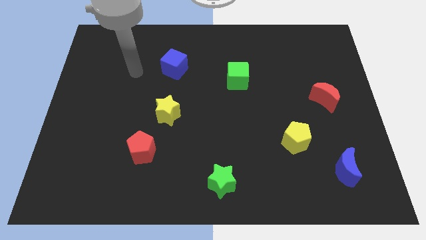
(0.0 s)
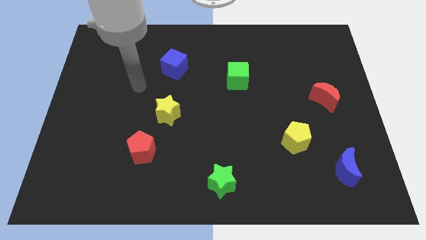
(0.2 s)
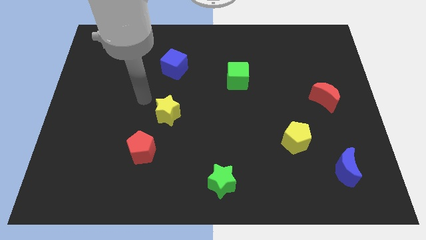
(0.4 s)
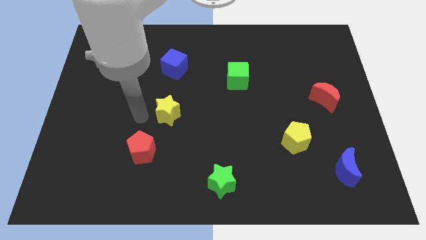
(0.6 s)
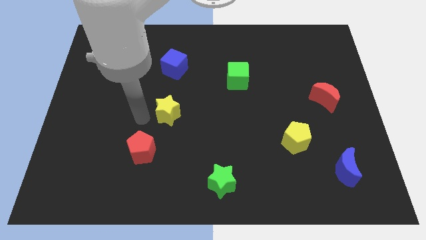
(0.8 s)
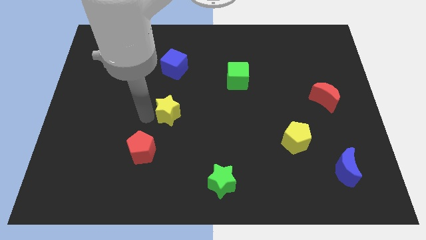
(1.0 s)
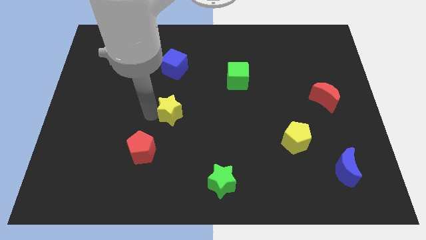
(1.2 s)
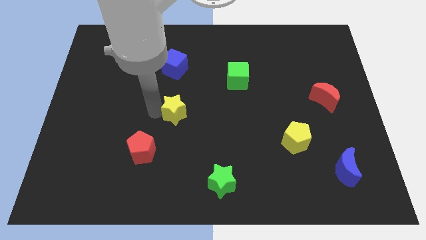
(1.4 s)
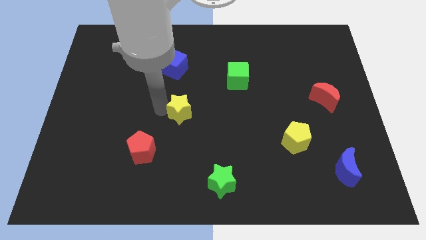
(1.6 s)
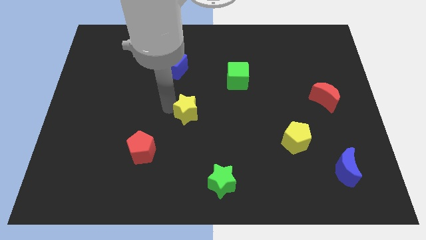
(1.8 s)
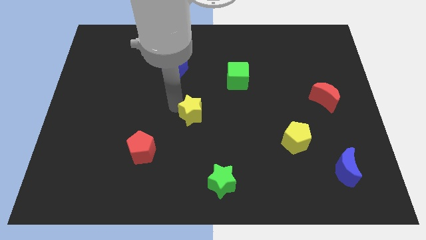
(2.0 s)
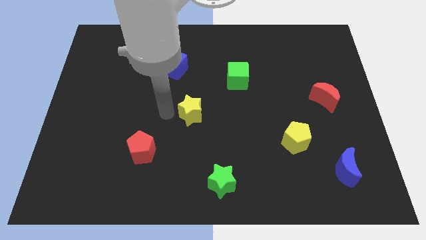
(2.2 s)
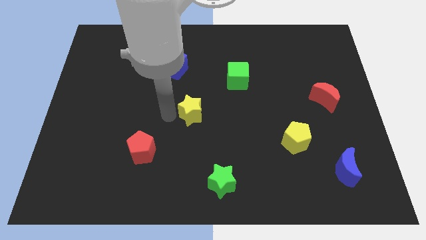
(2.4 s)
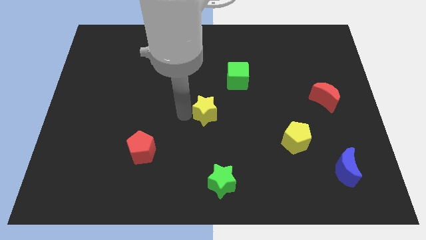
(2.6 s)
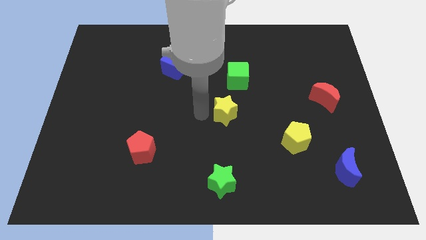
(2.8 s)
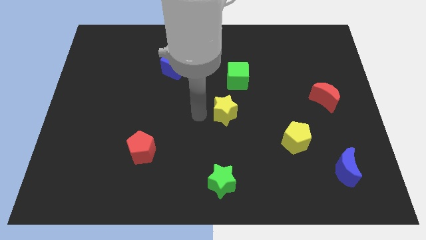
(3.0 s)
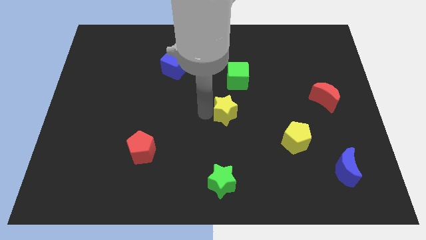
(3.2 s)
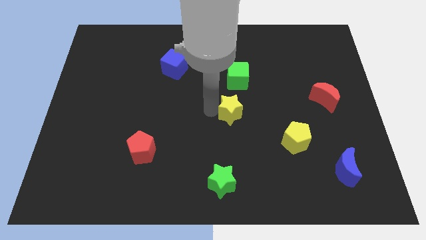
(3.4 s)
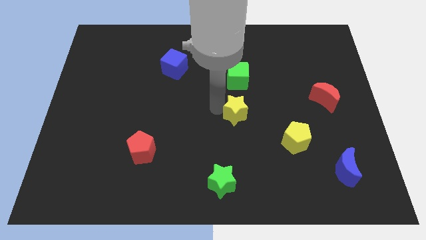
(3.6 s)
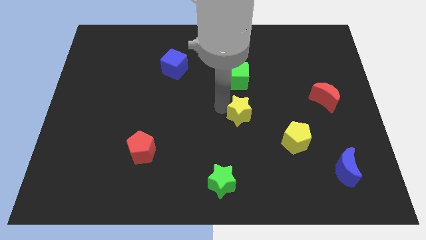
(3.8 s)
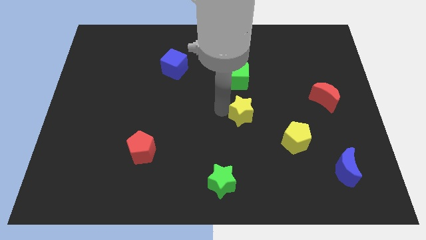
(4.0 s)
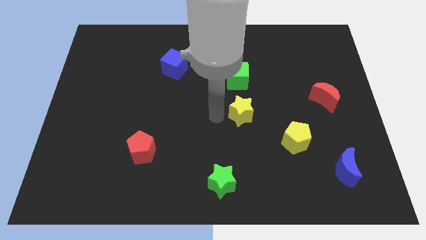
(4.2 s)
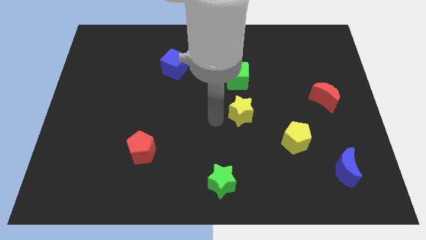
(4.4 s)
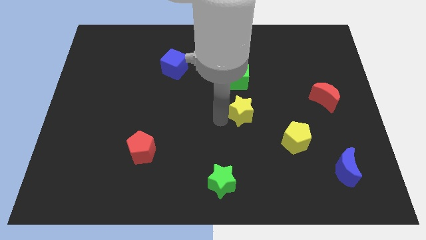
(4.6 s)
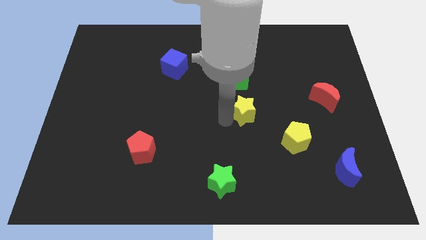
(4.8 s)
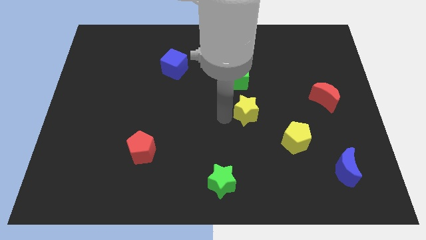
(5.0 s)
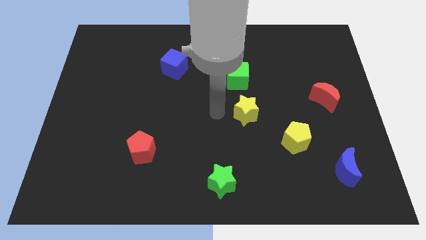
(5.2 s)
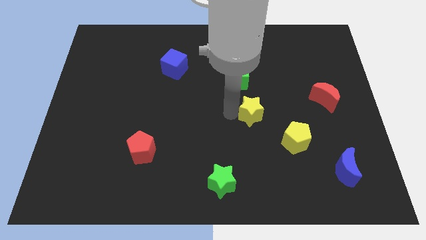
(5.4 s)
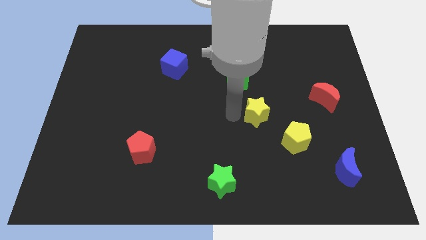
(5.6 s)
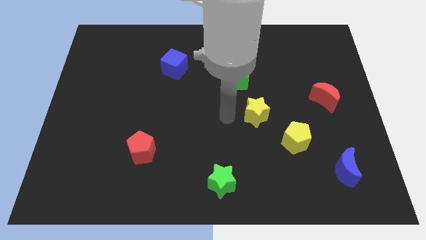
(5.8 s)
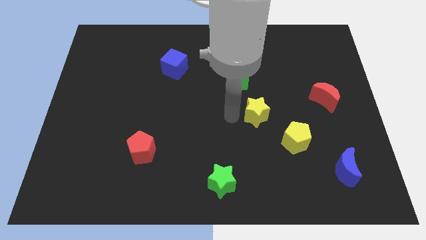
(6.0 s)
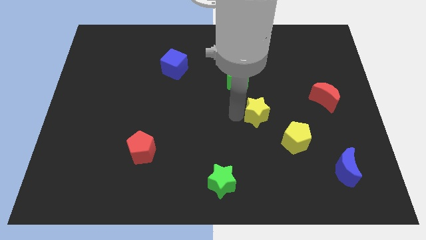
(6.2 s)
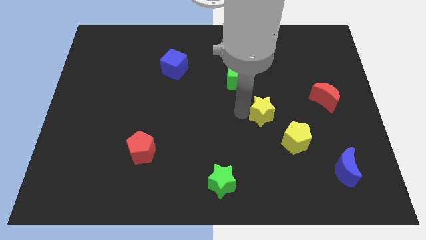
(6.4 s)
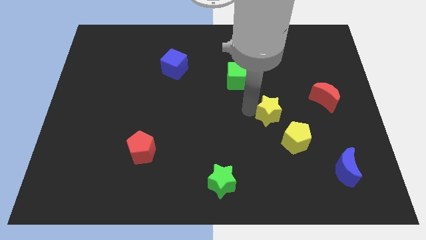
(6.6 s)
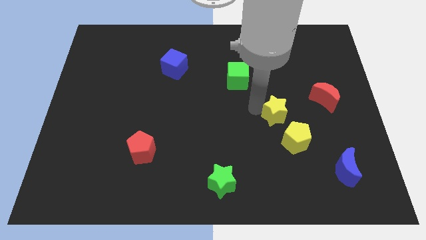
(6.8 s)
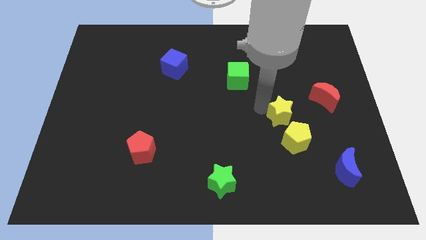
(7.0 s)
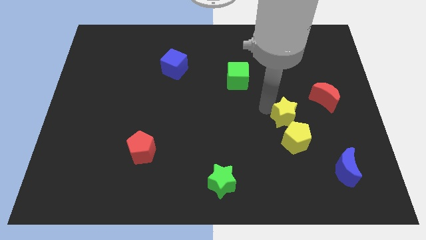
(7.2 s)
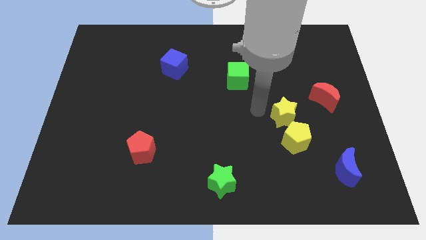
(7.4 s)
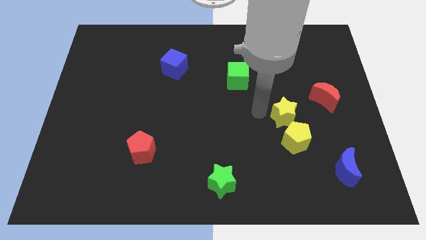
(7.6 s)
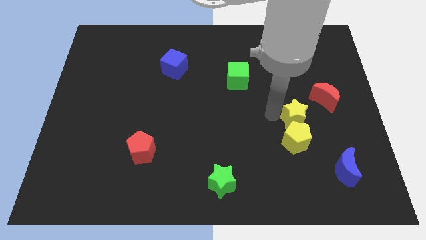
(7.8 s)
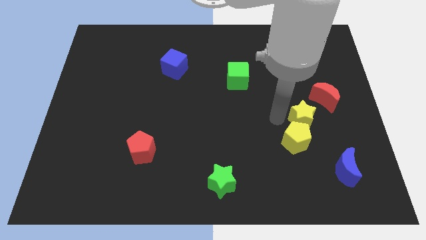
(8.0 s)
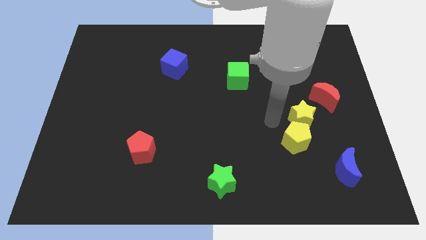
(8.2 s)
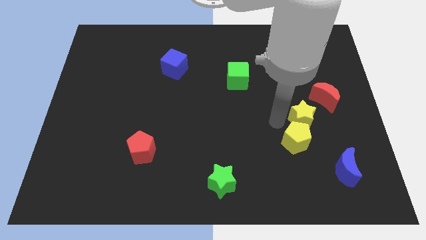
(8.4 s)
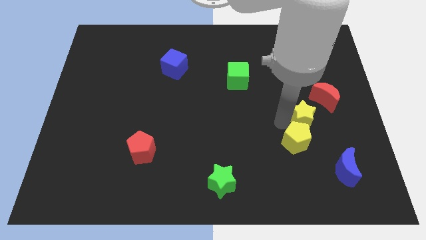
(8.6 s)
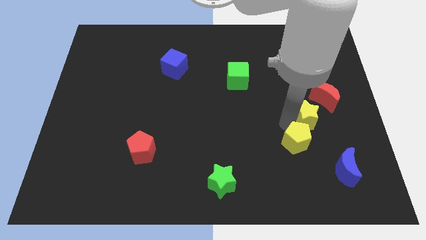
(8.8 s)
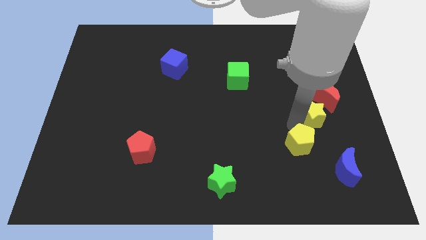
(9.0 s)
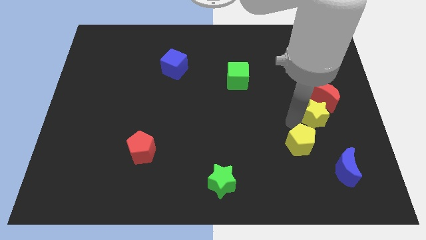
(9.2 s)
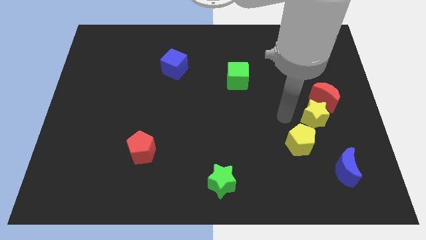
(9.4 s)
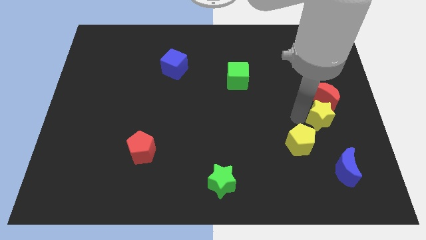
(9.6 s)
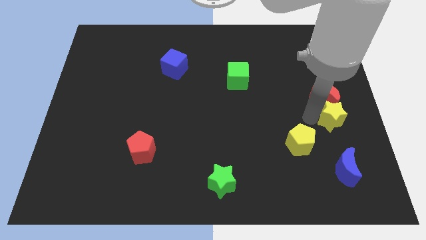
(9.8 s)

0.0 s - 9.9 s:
slide the yellow star to the right side

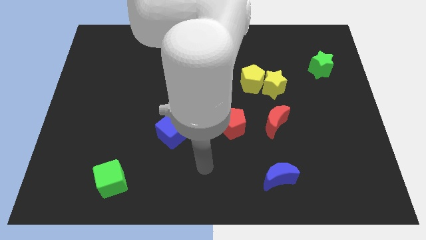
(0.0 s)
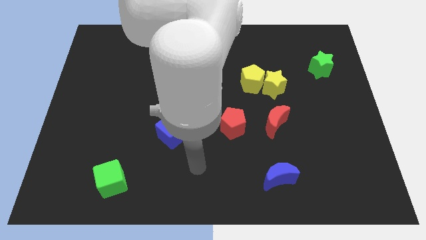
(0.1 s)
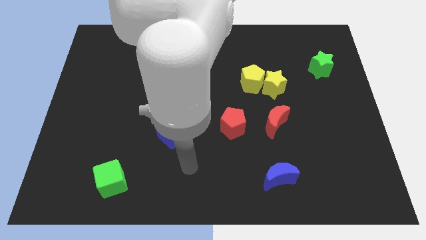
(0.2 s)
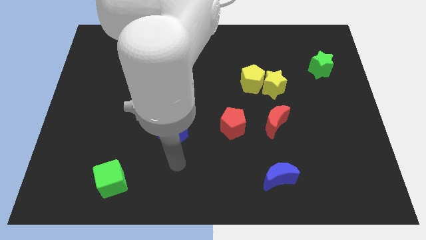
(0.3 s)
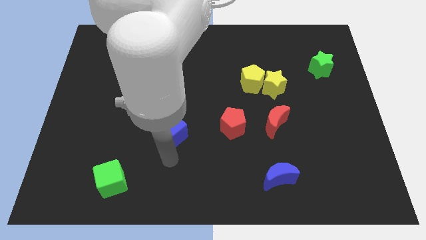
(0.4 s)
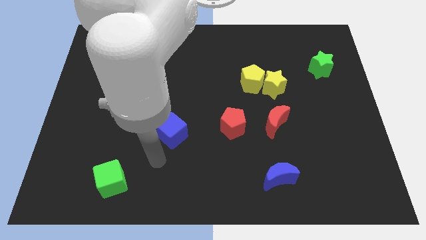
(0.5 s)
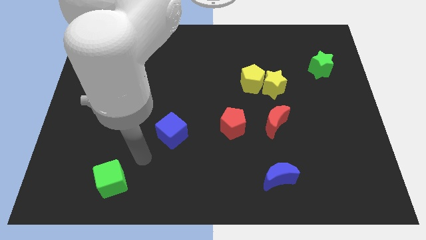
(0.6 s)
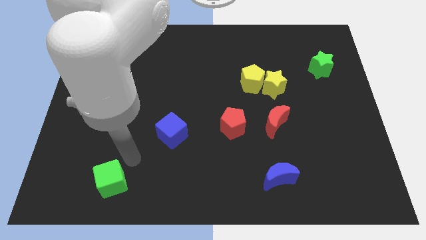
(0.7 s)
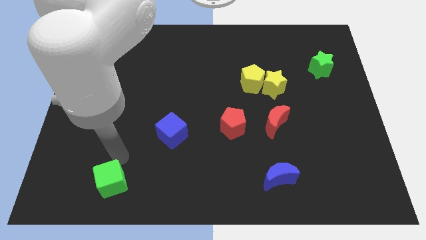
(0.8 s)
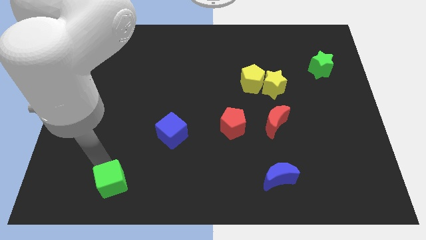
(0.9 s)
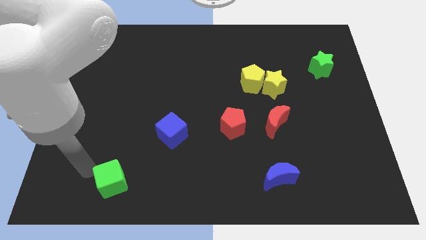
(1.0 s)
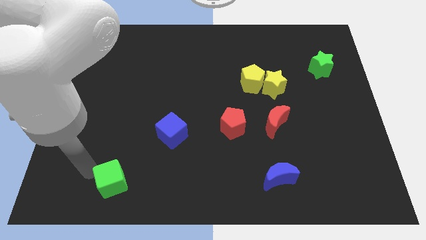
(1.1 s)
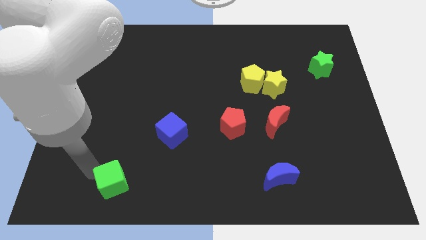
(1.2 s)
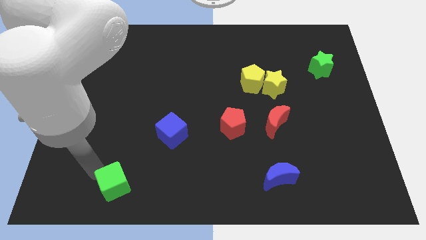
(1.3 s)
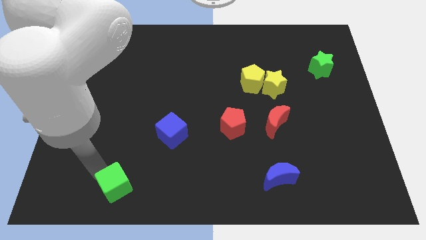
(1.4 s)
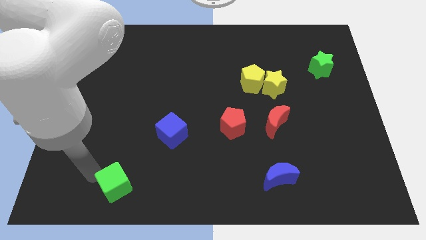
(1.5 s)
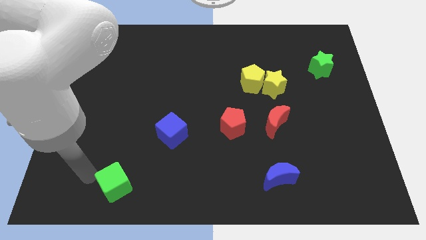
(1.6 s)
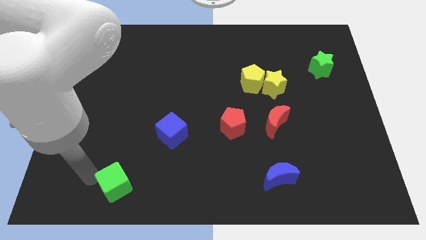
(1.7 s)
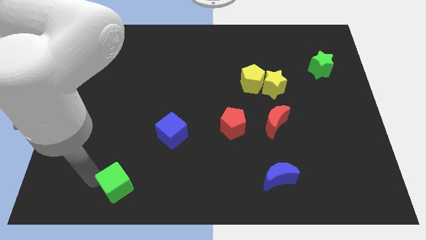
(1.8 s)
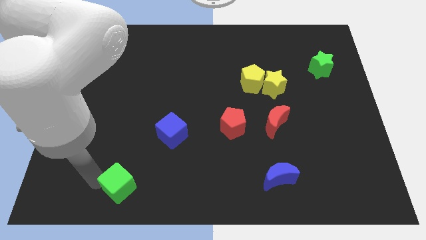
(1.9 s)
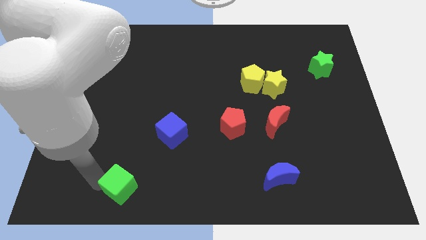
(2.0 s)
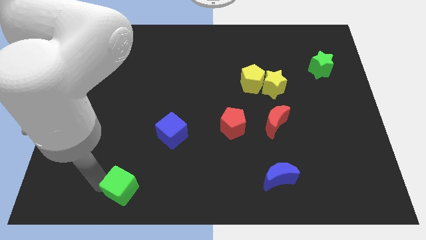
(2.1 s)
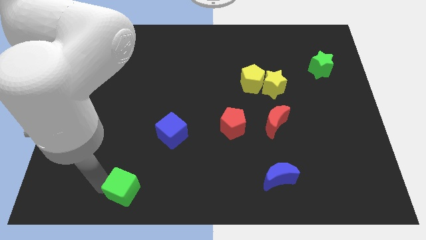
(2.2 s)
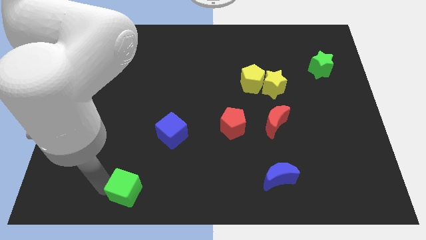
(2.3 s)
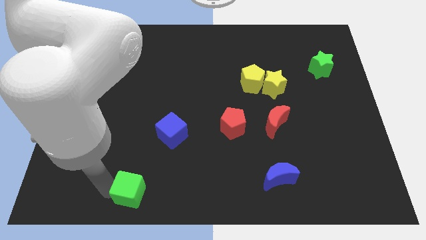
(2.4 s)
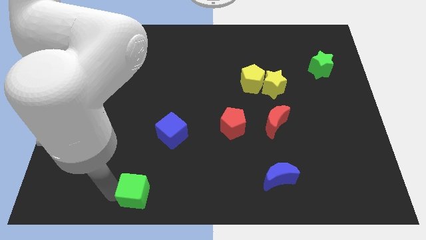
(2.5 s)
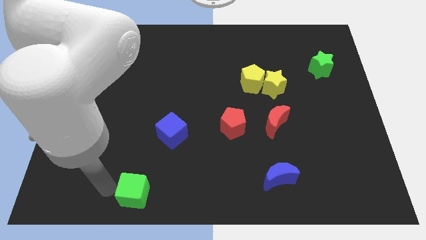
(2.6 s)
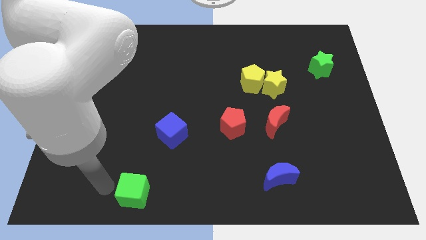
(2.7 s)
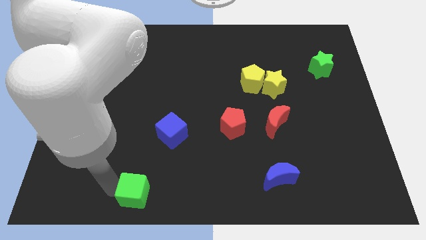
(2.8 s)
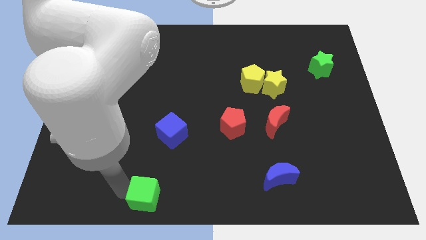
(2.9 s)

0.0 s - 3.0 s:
move the green cube to the bottom
